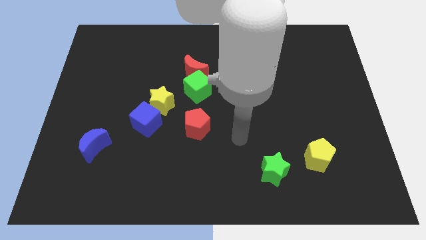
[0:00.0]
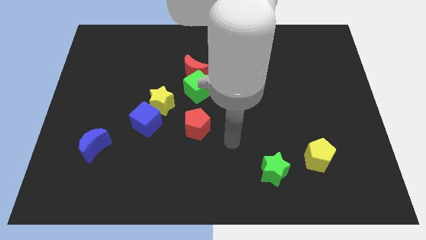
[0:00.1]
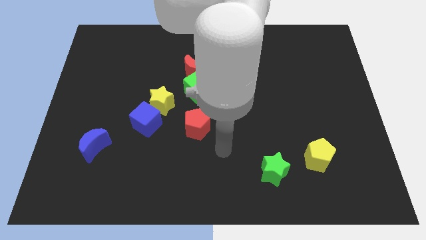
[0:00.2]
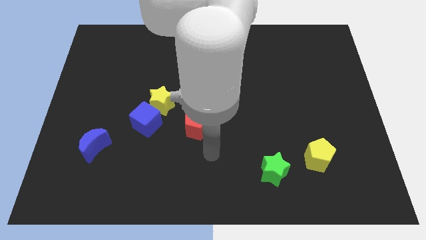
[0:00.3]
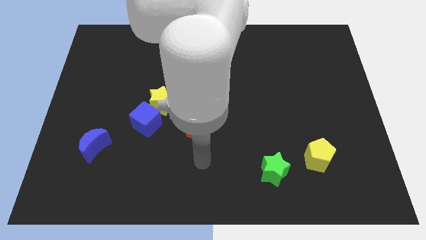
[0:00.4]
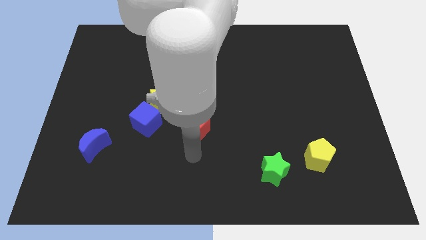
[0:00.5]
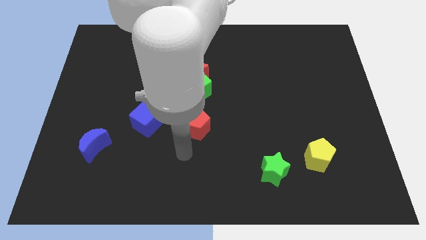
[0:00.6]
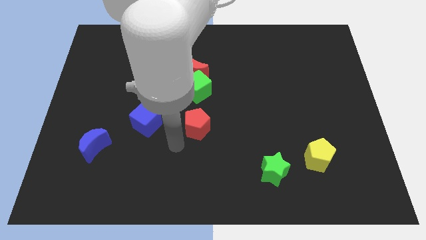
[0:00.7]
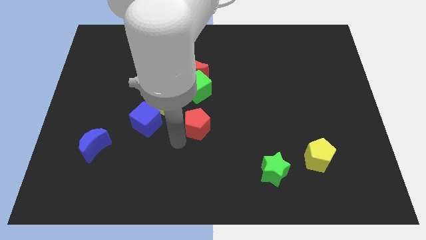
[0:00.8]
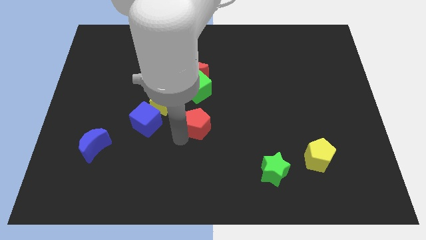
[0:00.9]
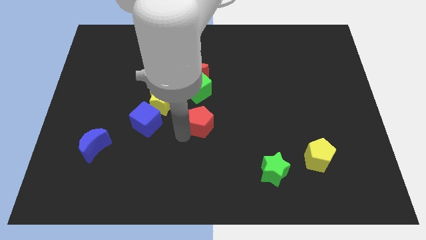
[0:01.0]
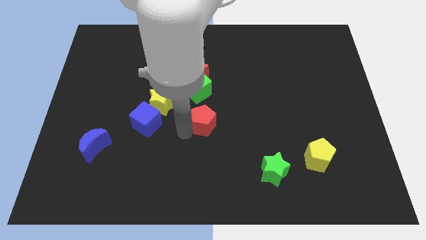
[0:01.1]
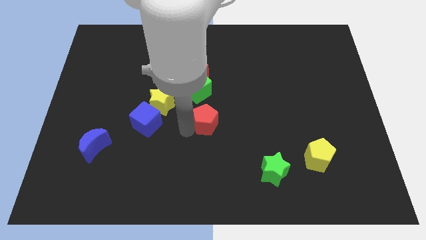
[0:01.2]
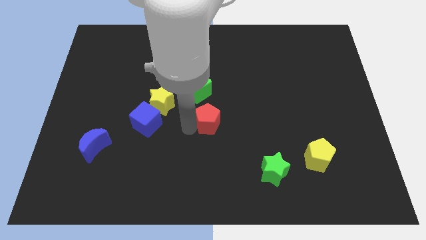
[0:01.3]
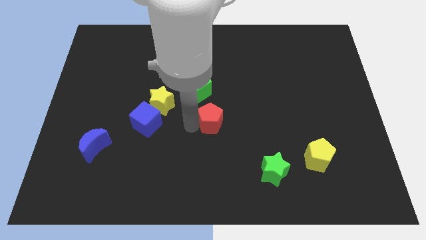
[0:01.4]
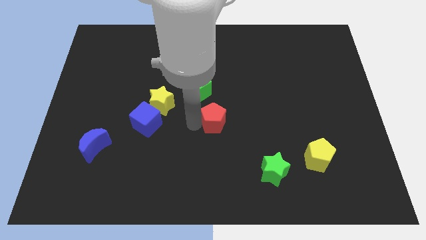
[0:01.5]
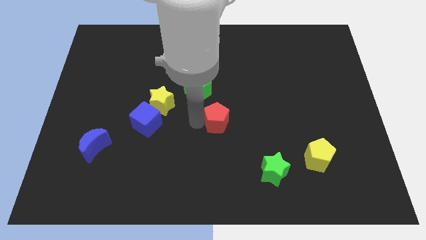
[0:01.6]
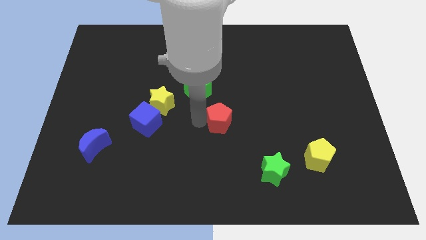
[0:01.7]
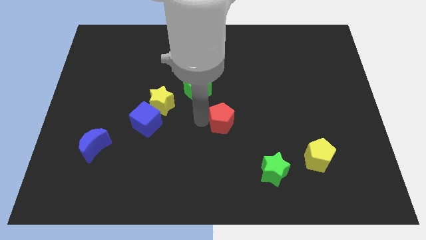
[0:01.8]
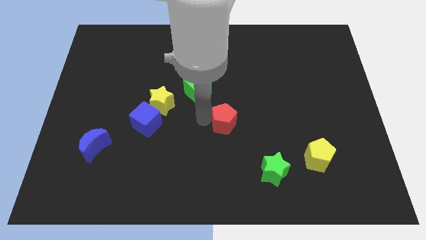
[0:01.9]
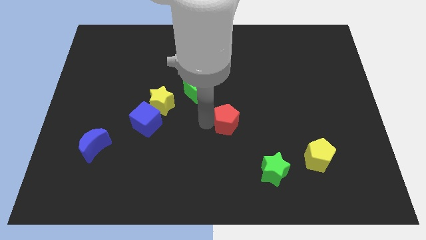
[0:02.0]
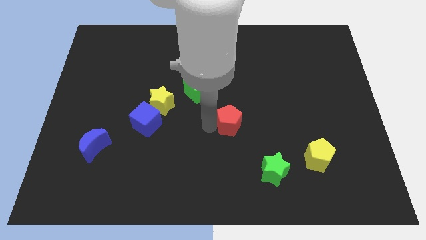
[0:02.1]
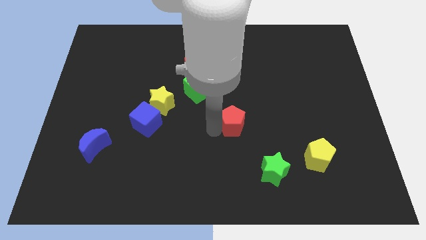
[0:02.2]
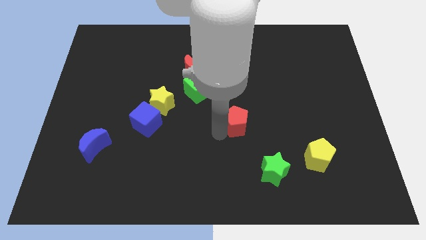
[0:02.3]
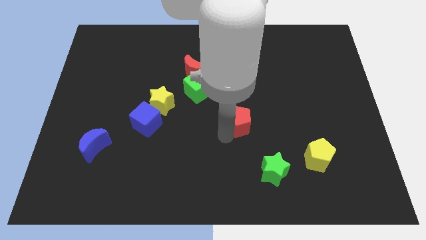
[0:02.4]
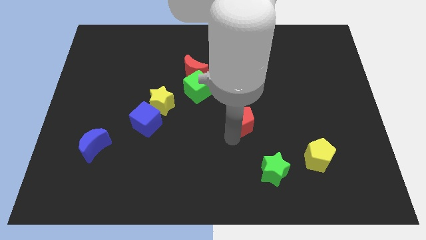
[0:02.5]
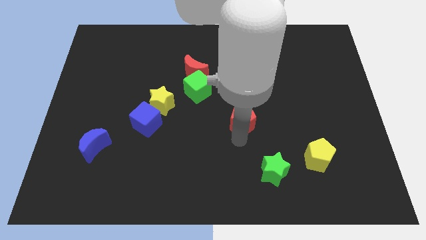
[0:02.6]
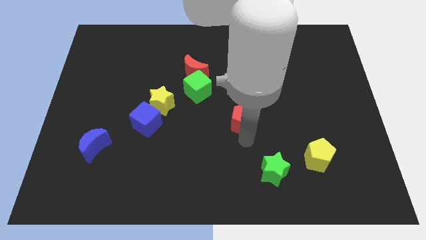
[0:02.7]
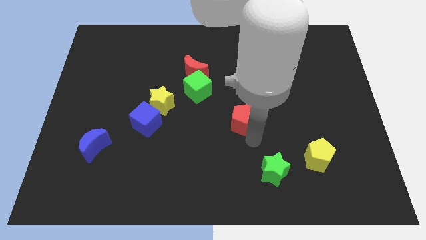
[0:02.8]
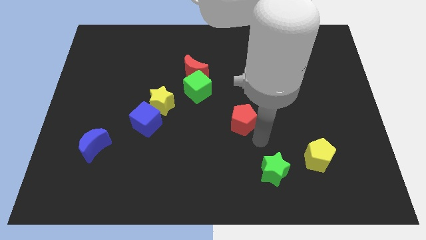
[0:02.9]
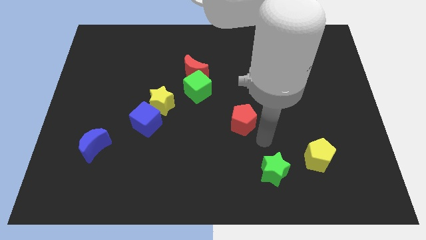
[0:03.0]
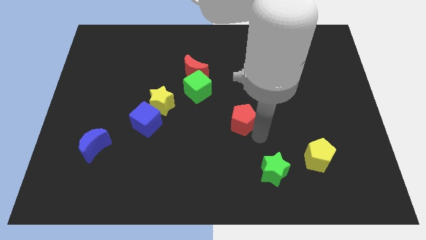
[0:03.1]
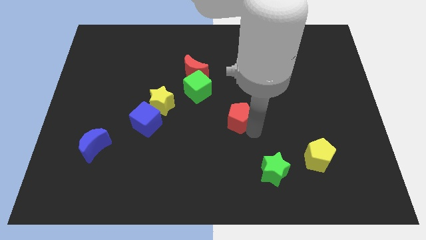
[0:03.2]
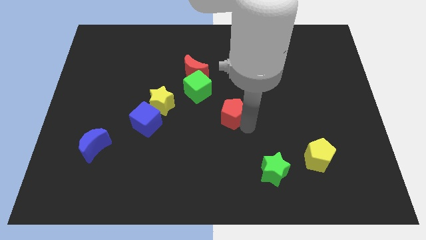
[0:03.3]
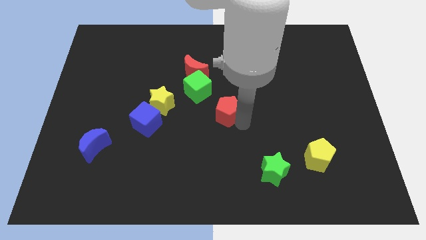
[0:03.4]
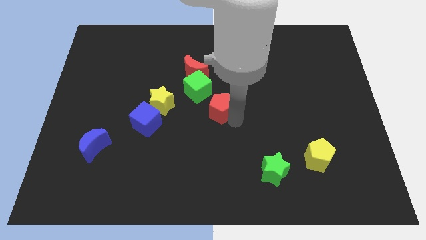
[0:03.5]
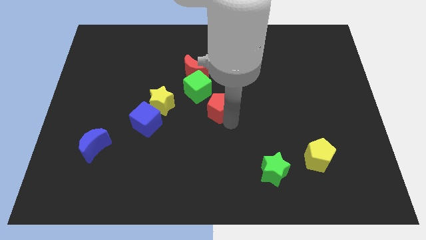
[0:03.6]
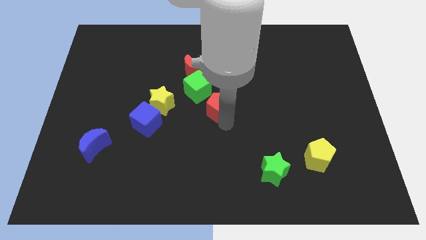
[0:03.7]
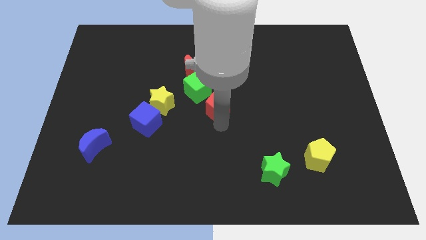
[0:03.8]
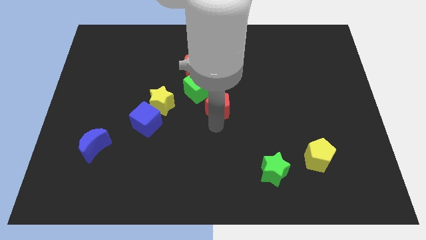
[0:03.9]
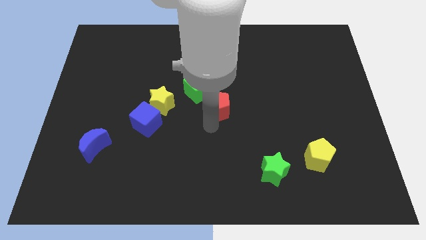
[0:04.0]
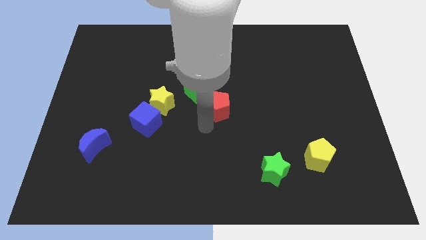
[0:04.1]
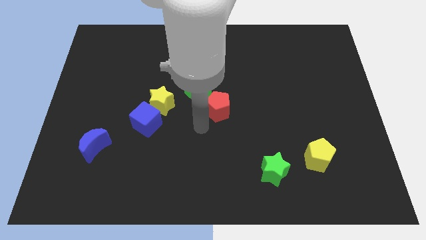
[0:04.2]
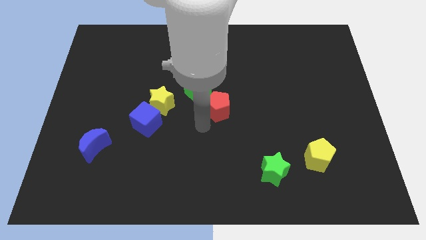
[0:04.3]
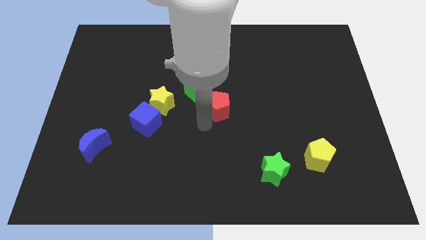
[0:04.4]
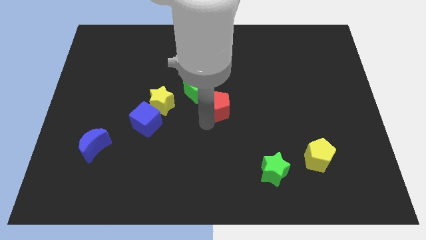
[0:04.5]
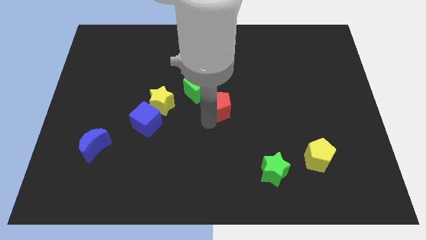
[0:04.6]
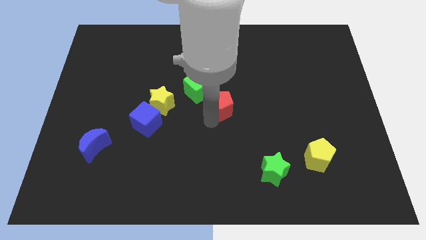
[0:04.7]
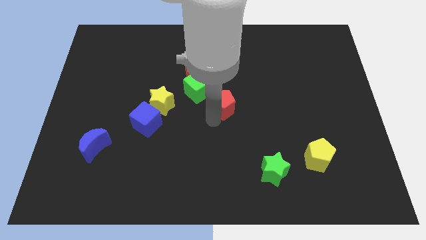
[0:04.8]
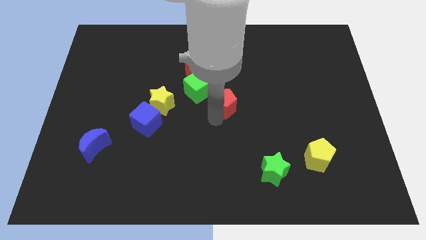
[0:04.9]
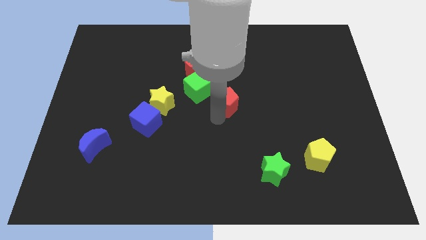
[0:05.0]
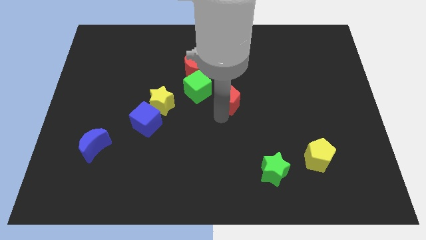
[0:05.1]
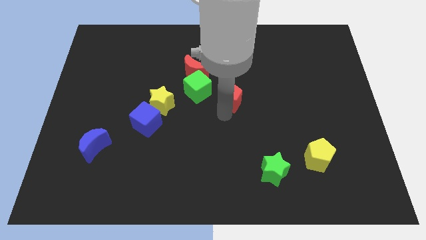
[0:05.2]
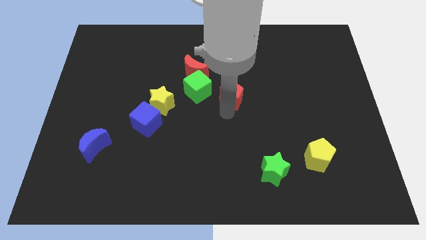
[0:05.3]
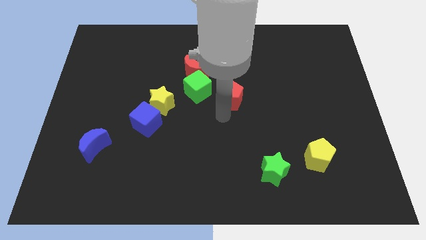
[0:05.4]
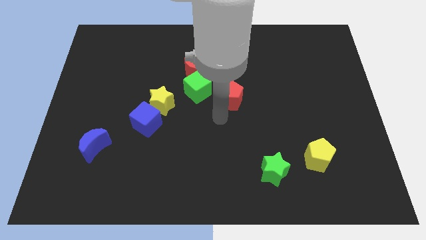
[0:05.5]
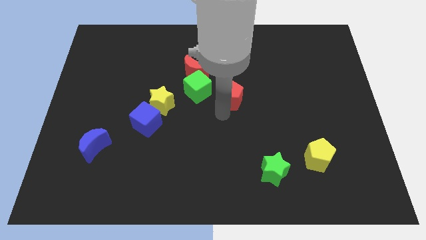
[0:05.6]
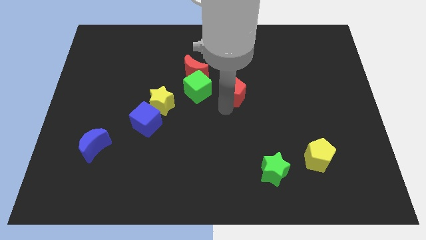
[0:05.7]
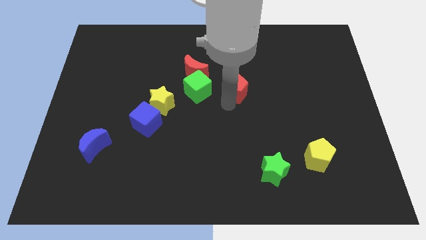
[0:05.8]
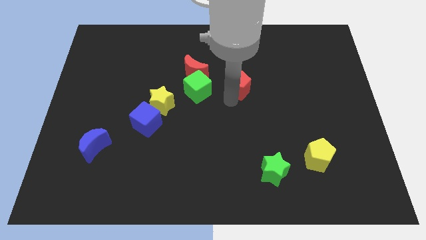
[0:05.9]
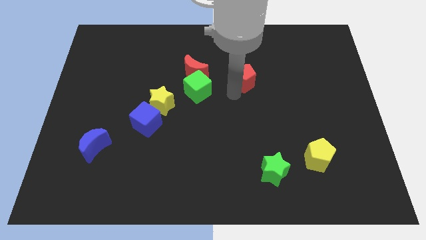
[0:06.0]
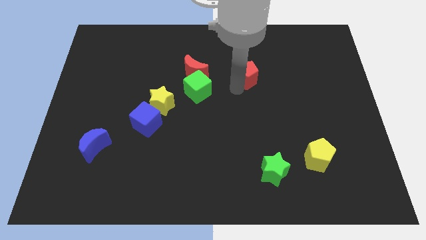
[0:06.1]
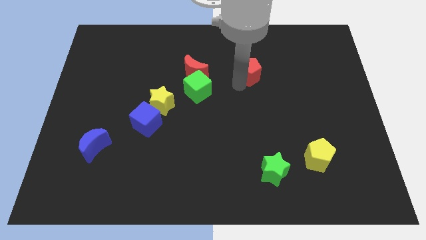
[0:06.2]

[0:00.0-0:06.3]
move the red pentagon diagonally up and to the right

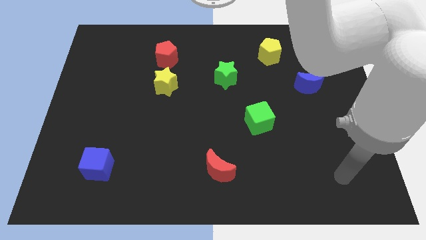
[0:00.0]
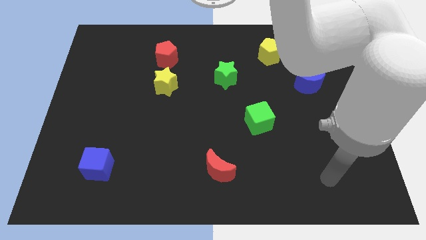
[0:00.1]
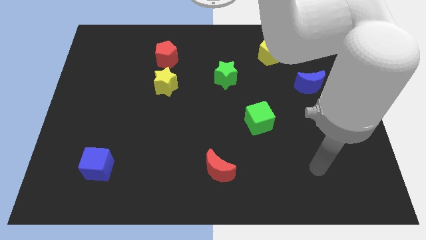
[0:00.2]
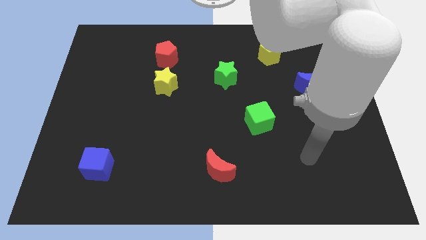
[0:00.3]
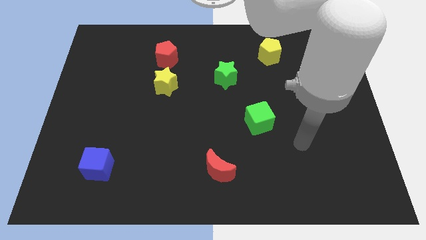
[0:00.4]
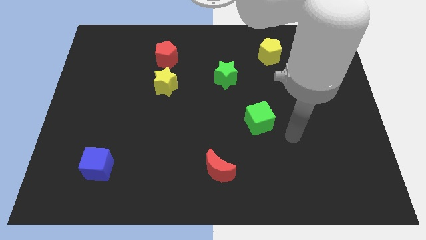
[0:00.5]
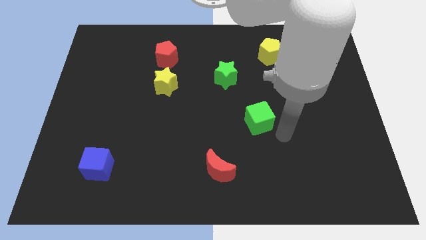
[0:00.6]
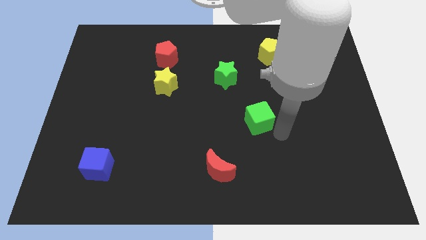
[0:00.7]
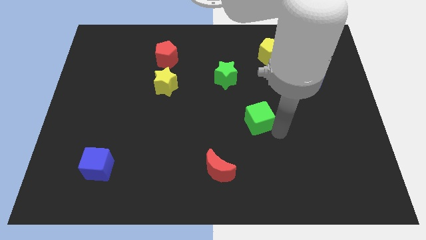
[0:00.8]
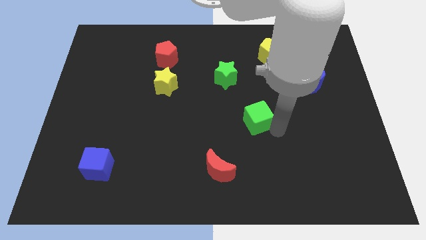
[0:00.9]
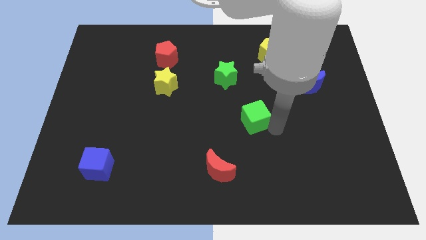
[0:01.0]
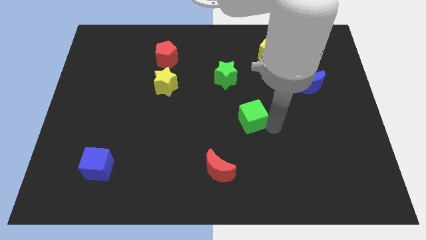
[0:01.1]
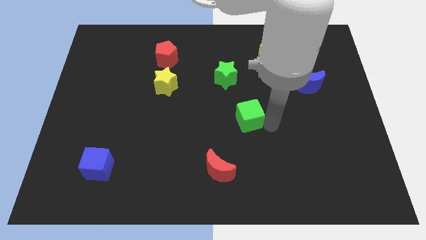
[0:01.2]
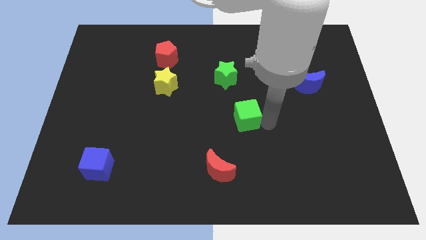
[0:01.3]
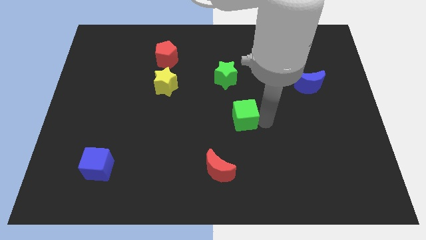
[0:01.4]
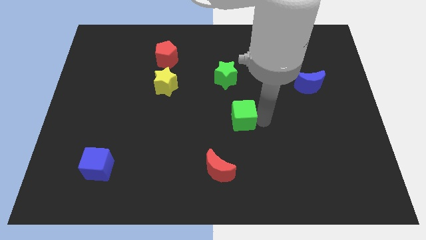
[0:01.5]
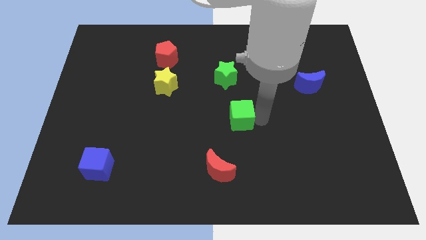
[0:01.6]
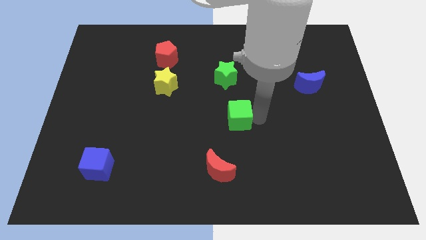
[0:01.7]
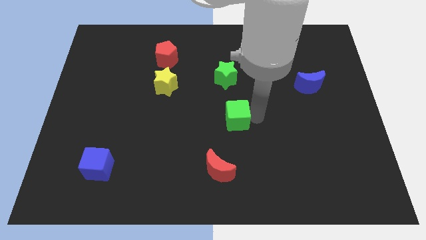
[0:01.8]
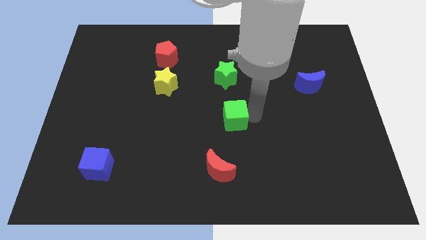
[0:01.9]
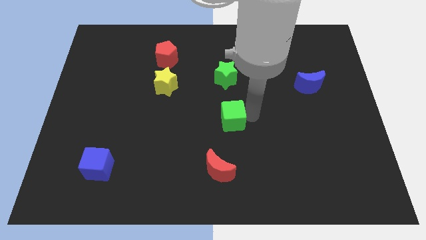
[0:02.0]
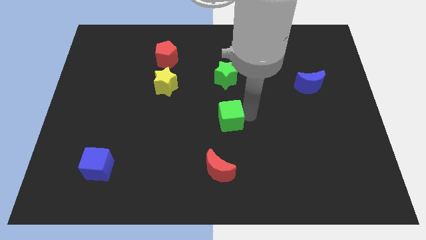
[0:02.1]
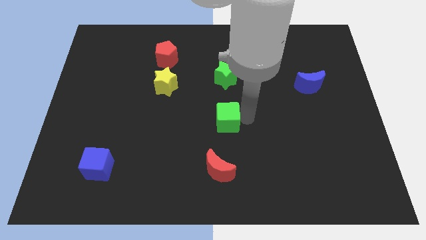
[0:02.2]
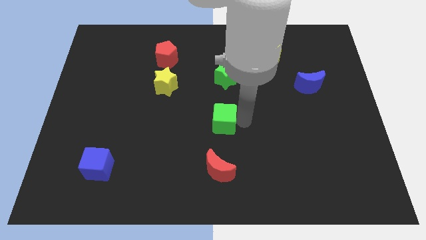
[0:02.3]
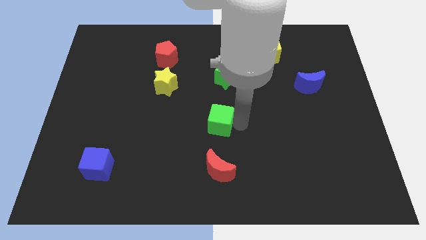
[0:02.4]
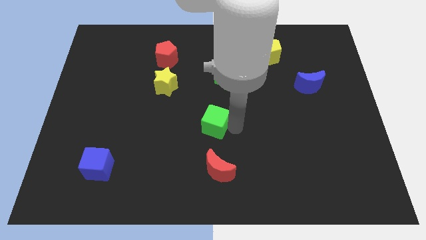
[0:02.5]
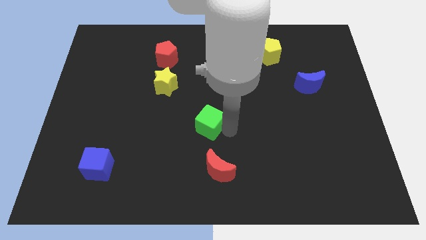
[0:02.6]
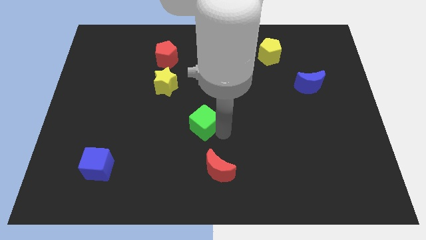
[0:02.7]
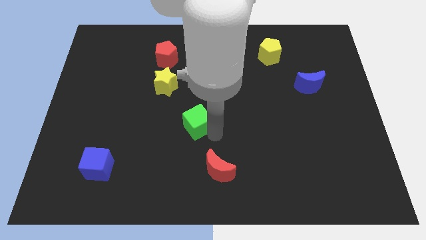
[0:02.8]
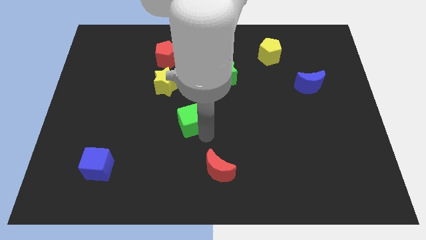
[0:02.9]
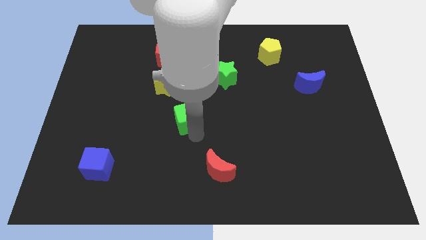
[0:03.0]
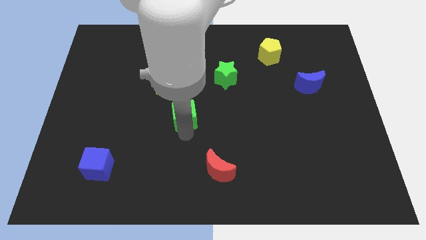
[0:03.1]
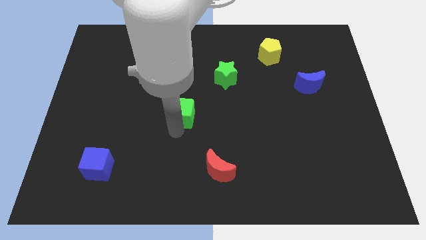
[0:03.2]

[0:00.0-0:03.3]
slightly push the green cube up and to the left diagonally
